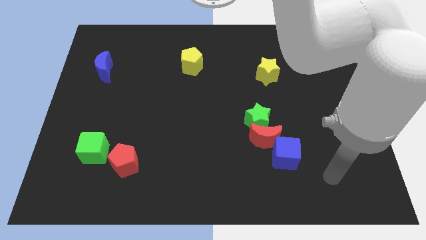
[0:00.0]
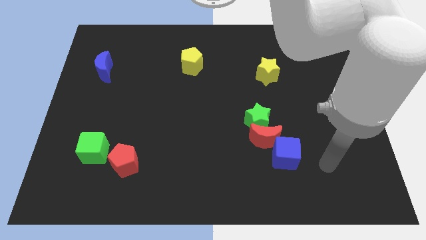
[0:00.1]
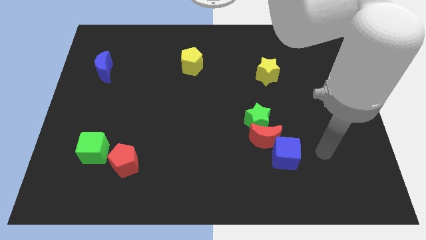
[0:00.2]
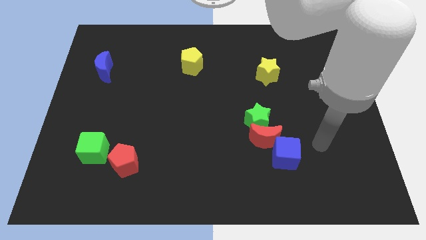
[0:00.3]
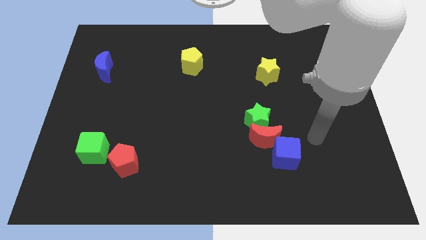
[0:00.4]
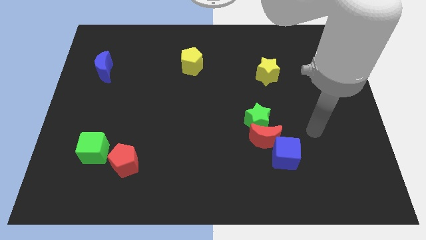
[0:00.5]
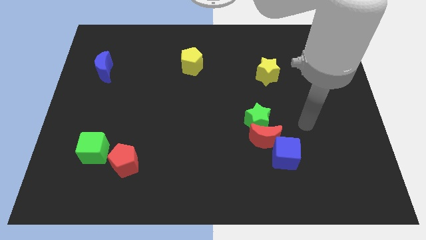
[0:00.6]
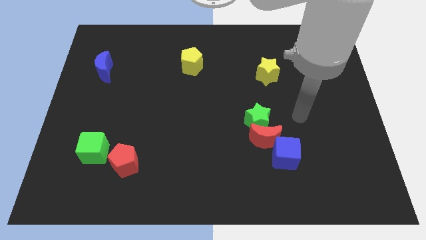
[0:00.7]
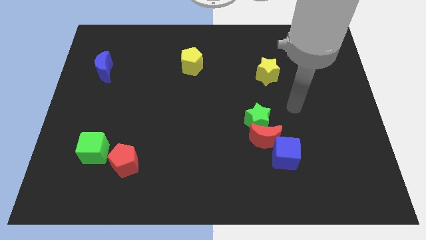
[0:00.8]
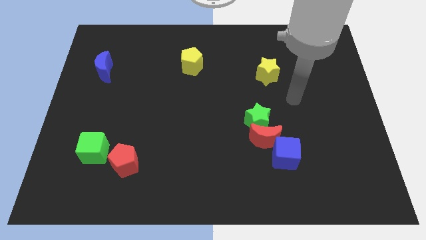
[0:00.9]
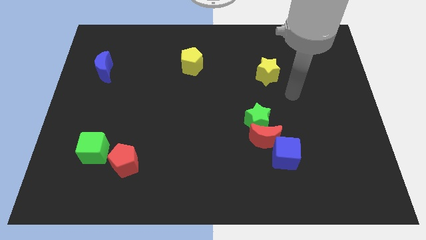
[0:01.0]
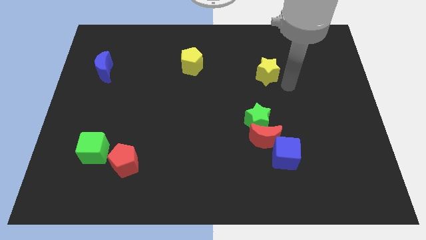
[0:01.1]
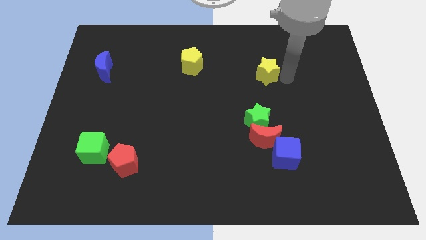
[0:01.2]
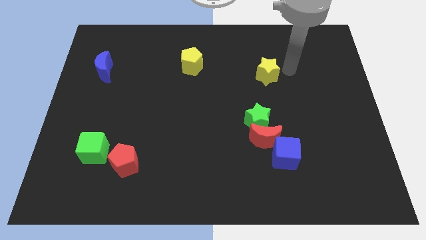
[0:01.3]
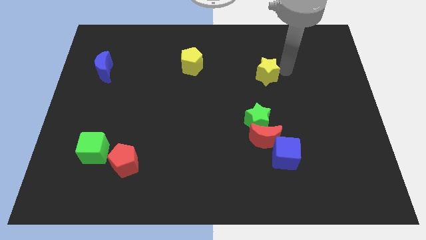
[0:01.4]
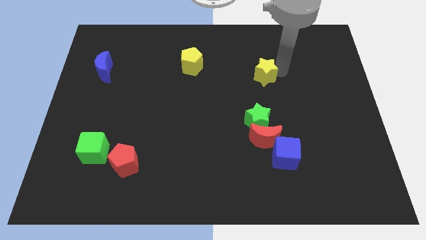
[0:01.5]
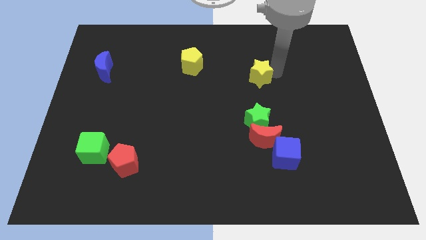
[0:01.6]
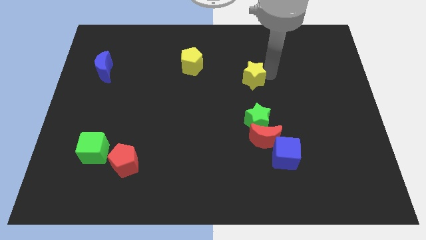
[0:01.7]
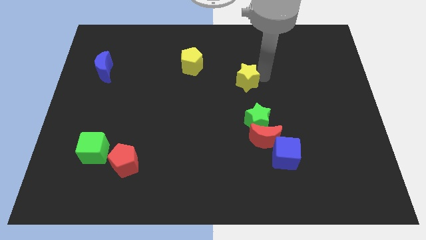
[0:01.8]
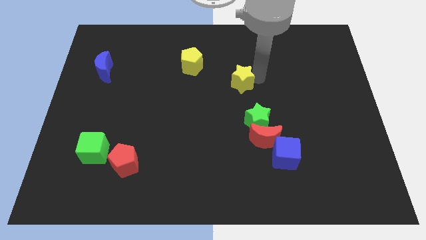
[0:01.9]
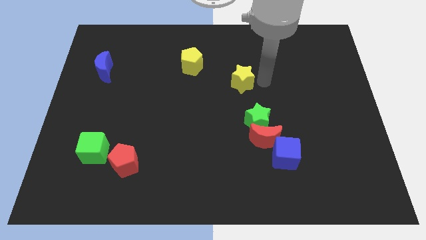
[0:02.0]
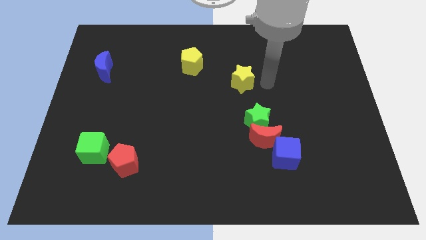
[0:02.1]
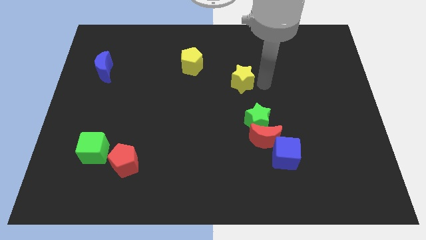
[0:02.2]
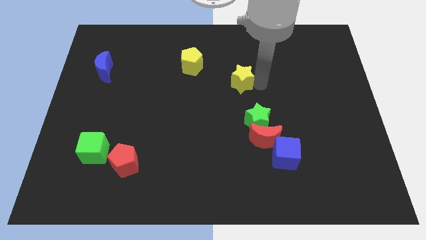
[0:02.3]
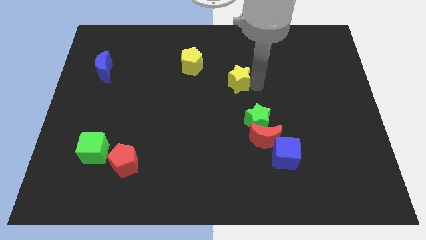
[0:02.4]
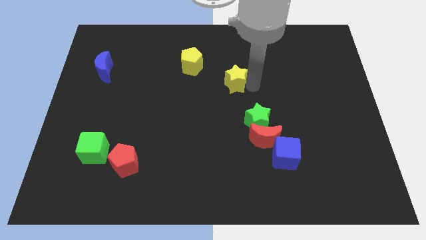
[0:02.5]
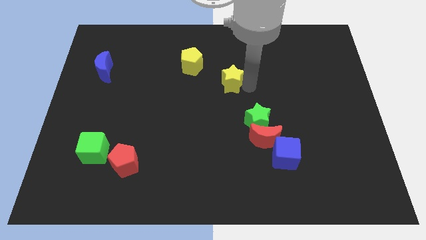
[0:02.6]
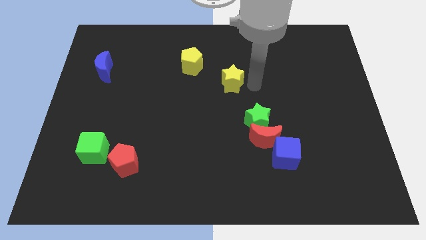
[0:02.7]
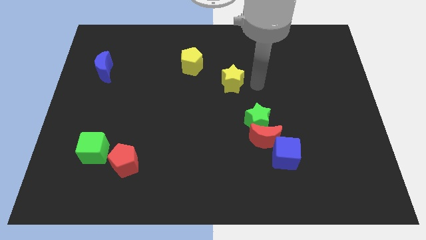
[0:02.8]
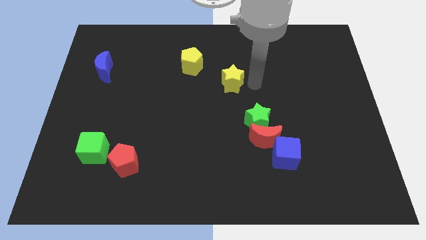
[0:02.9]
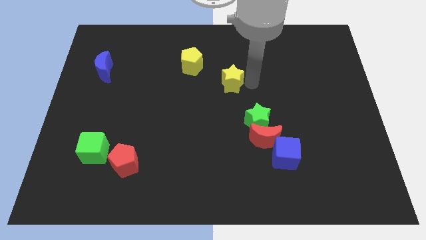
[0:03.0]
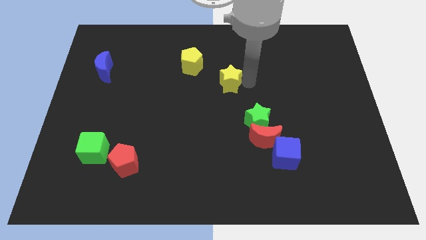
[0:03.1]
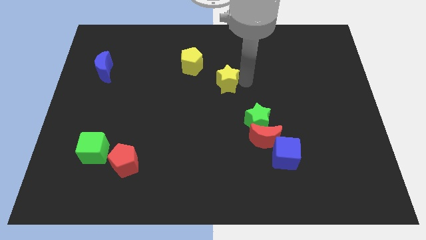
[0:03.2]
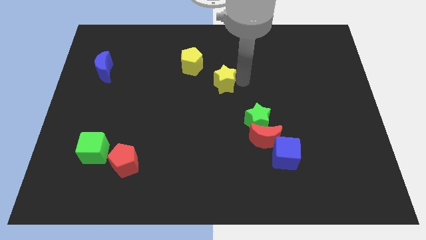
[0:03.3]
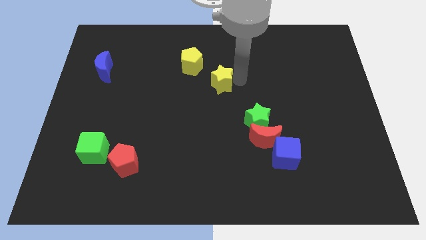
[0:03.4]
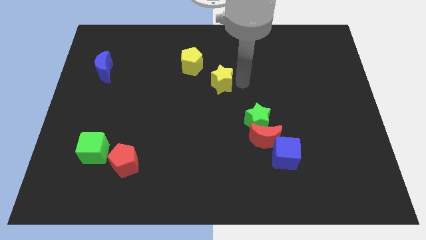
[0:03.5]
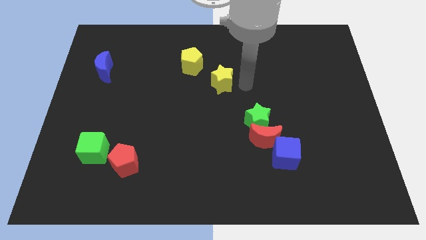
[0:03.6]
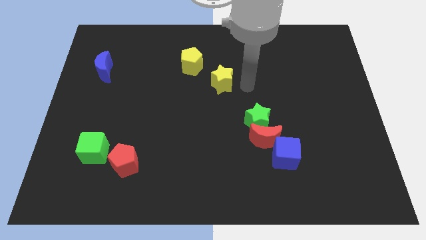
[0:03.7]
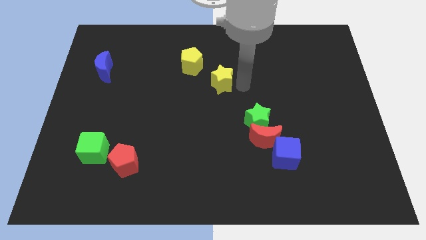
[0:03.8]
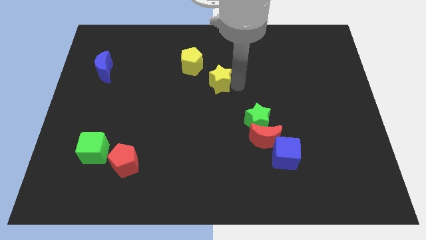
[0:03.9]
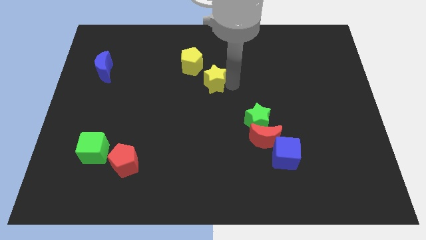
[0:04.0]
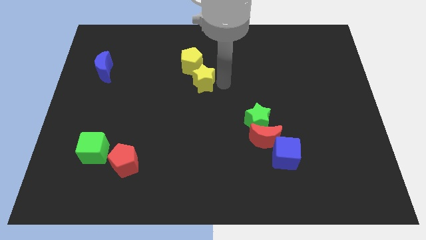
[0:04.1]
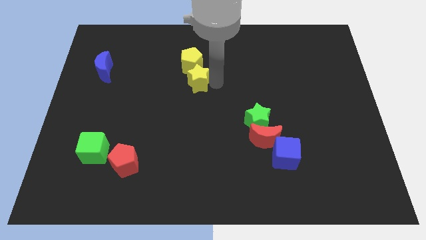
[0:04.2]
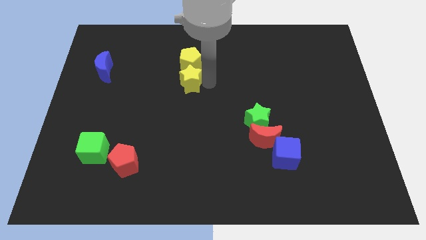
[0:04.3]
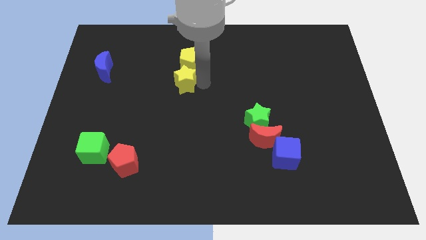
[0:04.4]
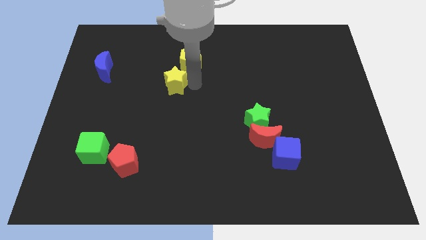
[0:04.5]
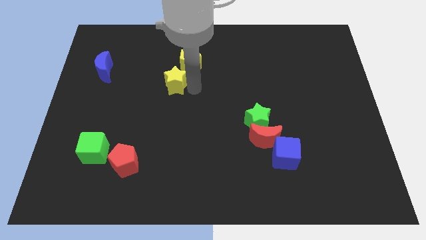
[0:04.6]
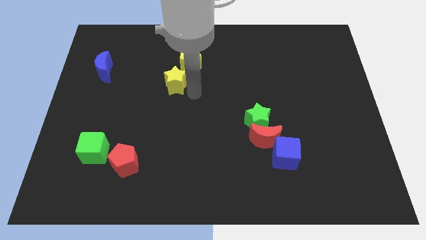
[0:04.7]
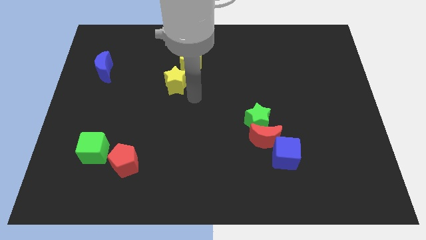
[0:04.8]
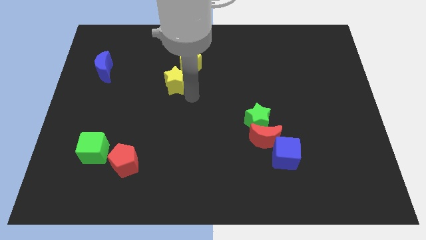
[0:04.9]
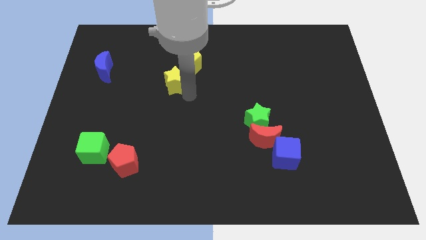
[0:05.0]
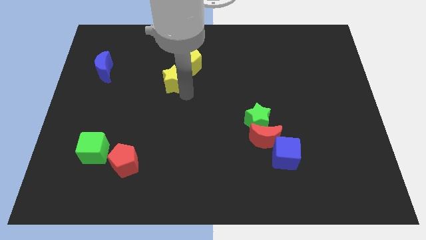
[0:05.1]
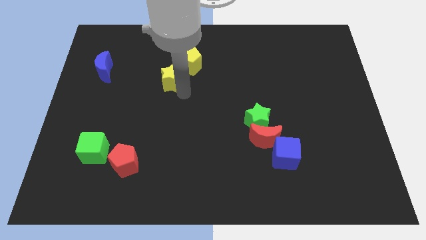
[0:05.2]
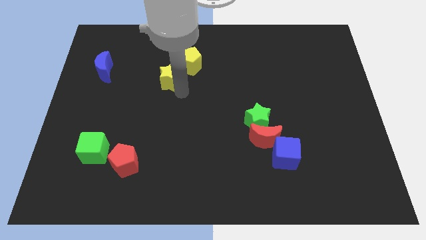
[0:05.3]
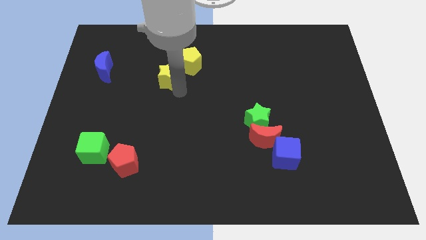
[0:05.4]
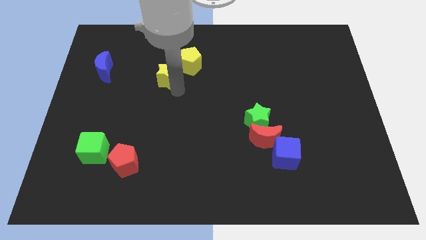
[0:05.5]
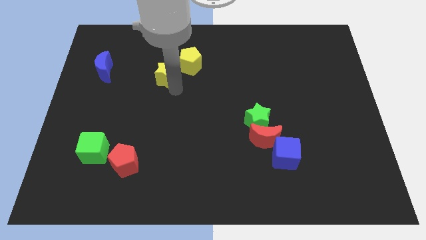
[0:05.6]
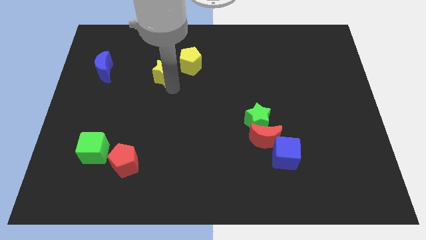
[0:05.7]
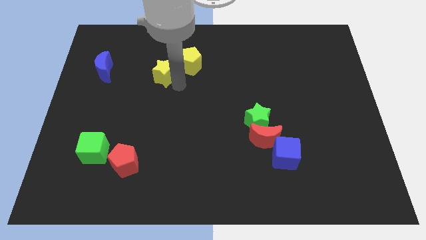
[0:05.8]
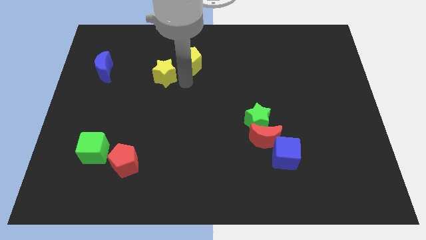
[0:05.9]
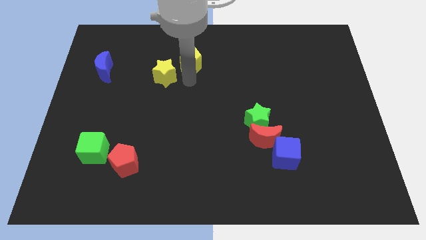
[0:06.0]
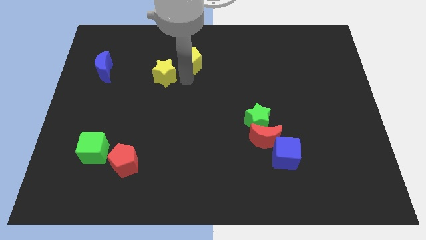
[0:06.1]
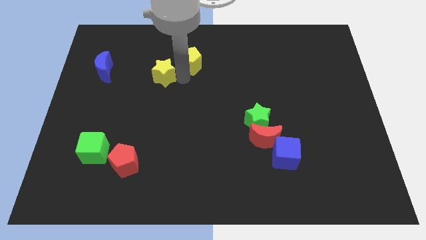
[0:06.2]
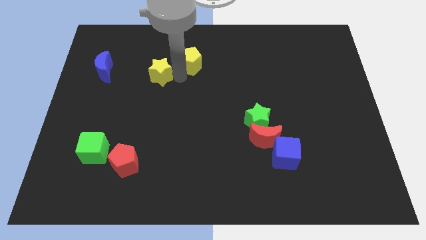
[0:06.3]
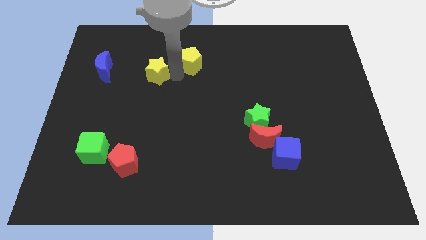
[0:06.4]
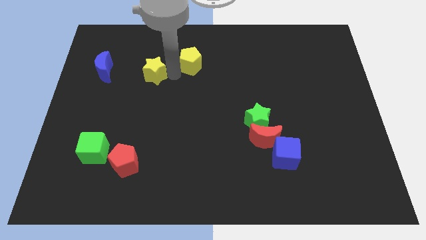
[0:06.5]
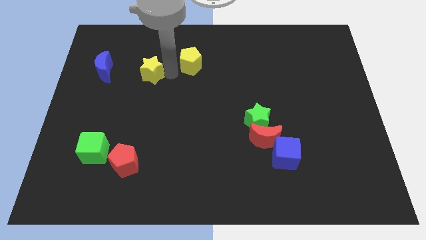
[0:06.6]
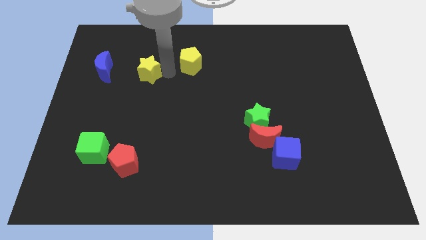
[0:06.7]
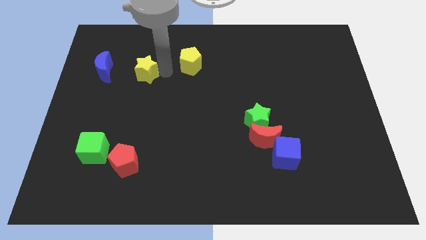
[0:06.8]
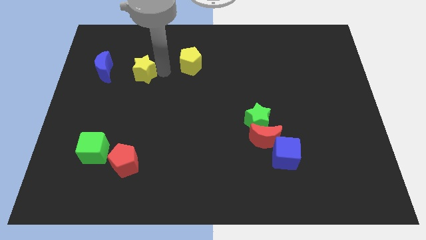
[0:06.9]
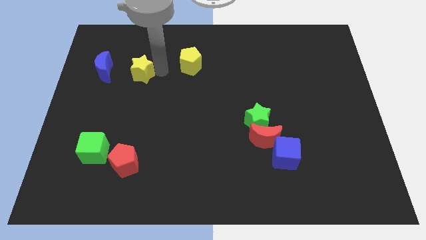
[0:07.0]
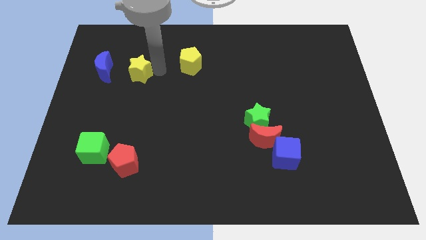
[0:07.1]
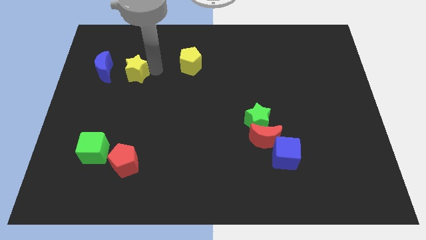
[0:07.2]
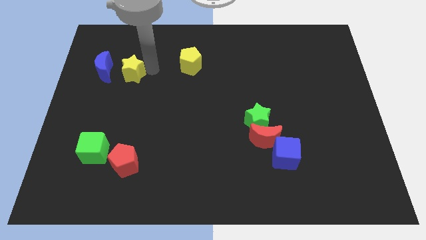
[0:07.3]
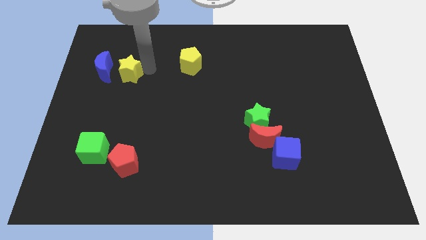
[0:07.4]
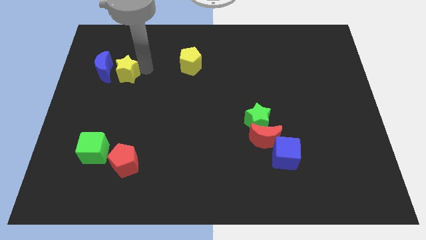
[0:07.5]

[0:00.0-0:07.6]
slide the yellow star to the blue moon
